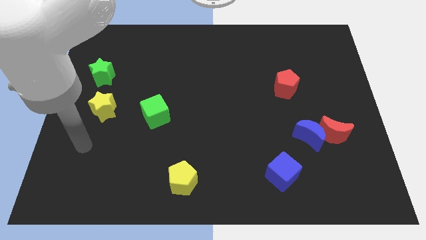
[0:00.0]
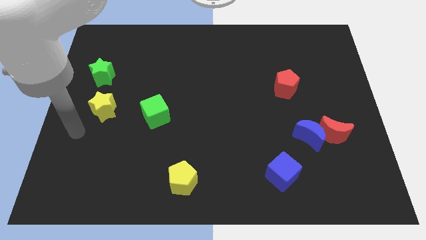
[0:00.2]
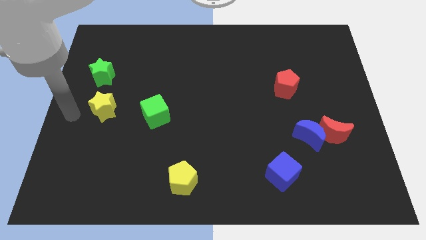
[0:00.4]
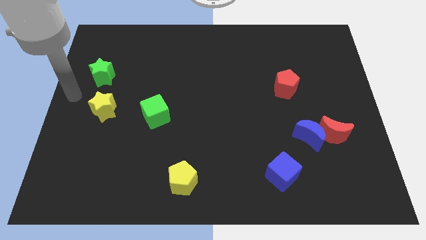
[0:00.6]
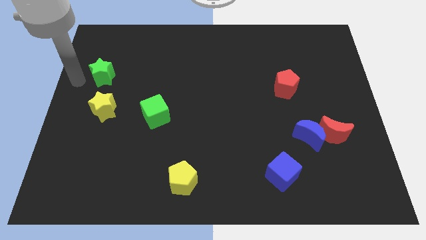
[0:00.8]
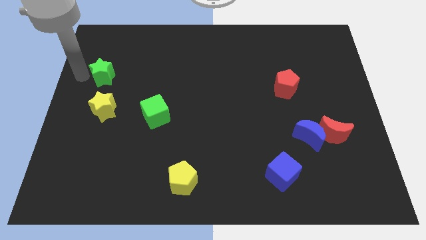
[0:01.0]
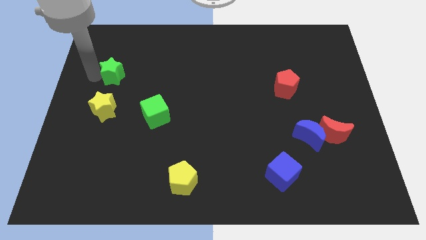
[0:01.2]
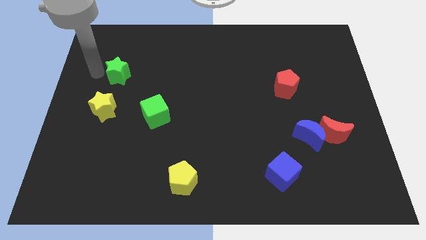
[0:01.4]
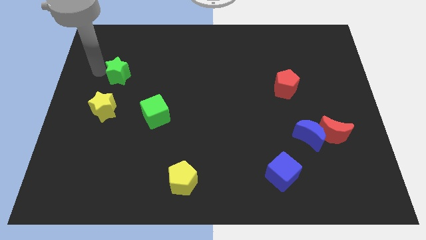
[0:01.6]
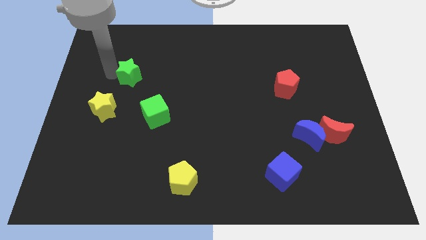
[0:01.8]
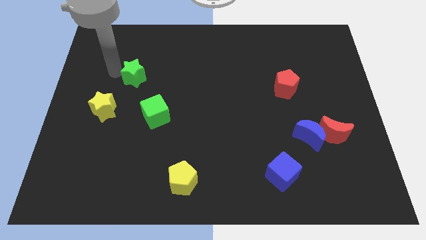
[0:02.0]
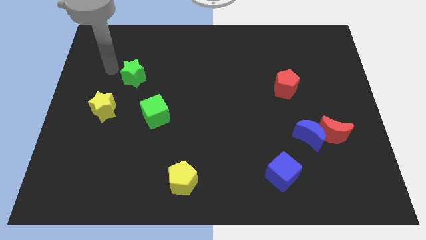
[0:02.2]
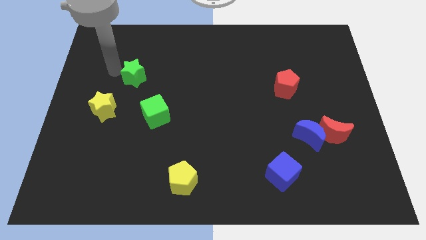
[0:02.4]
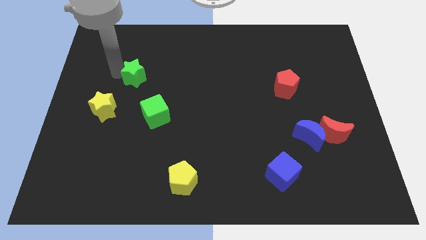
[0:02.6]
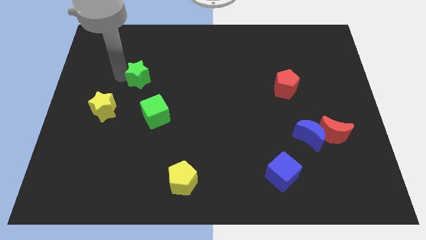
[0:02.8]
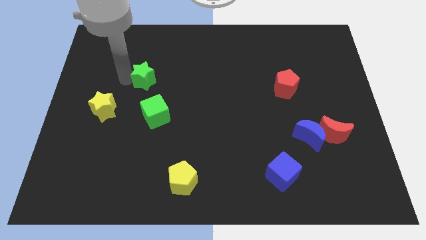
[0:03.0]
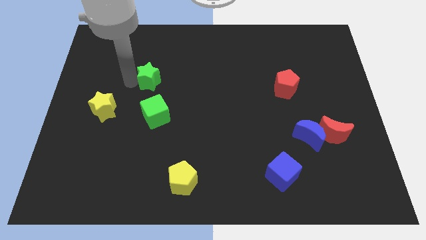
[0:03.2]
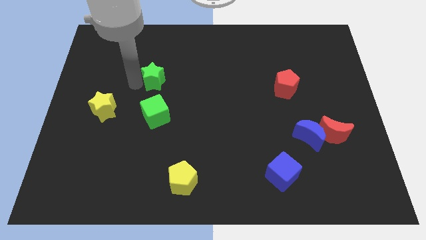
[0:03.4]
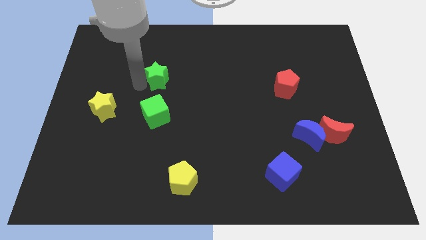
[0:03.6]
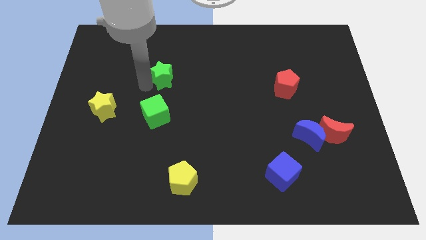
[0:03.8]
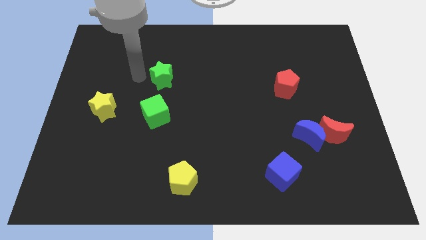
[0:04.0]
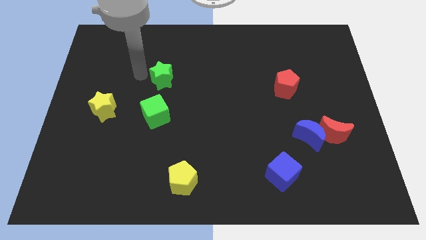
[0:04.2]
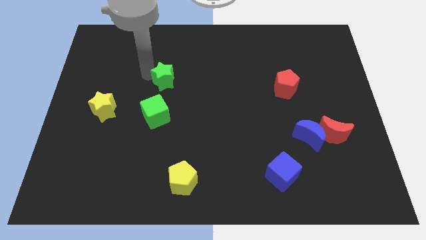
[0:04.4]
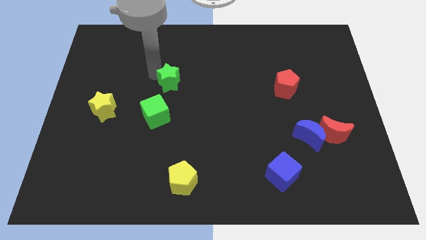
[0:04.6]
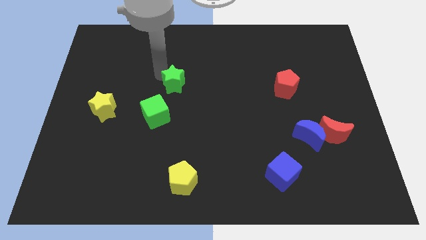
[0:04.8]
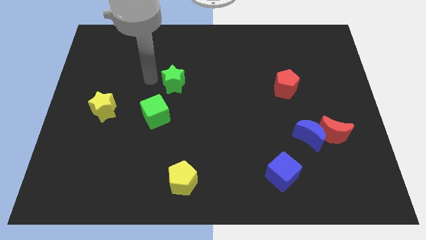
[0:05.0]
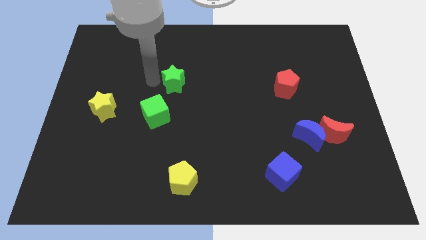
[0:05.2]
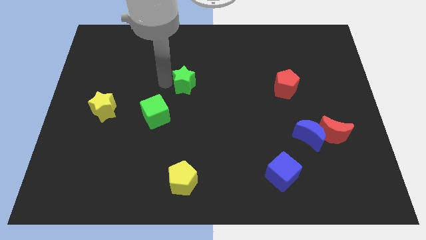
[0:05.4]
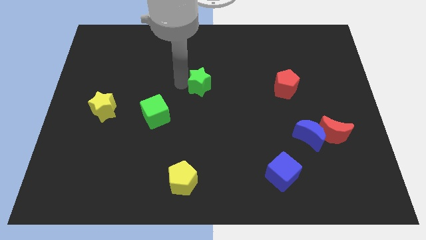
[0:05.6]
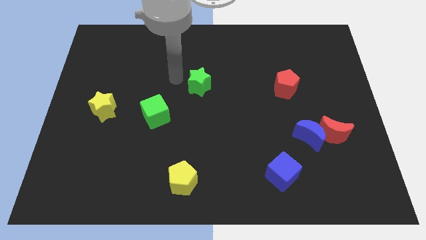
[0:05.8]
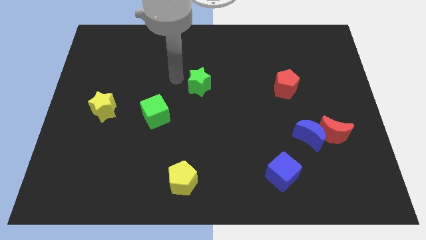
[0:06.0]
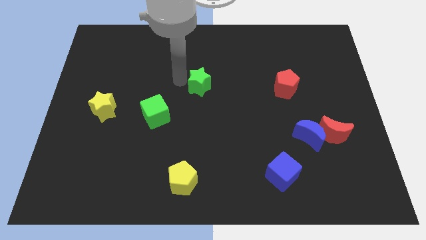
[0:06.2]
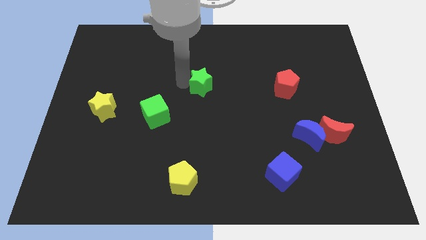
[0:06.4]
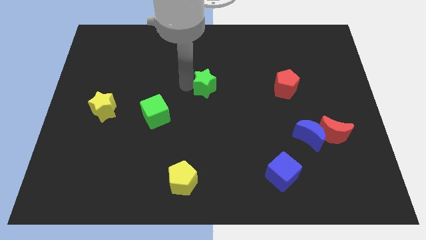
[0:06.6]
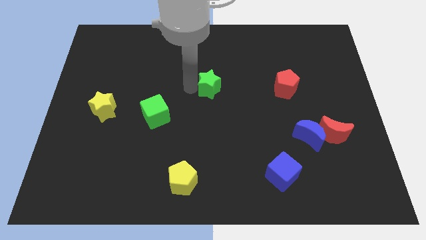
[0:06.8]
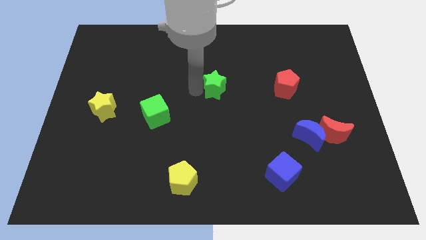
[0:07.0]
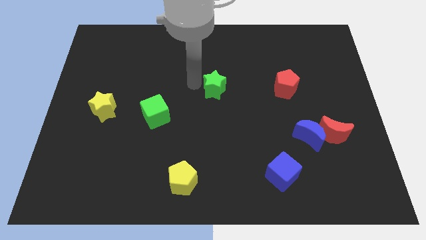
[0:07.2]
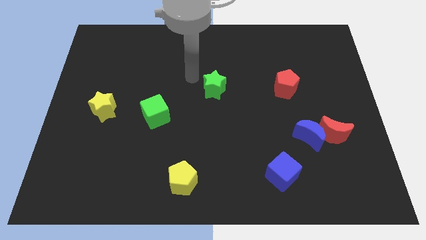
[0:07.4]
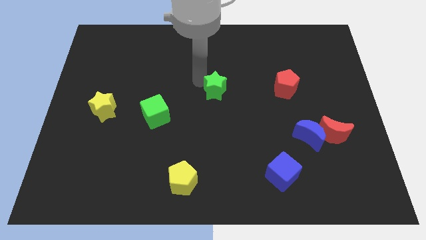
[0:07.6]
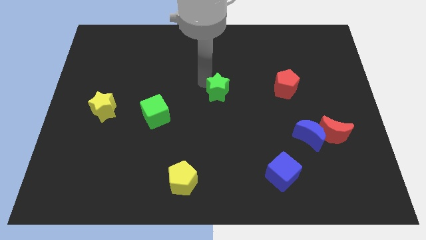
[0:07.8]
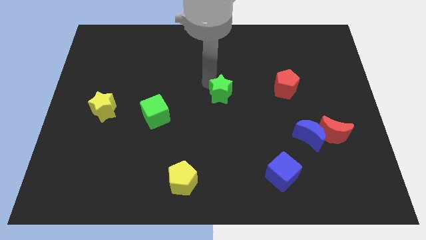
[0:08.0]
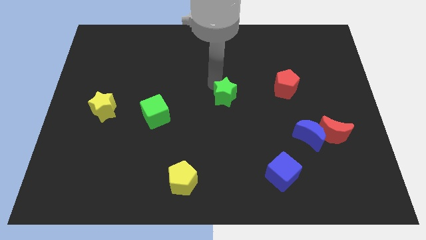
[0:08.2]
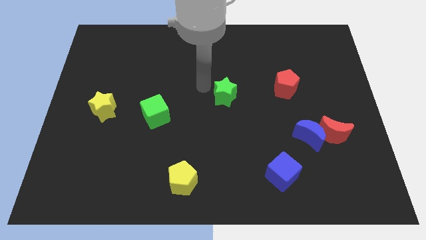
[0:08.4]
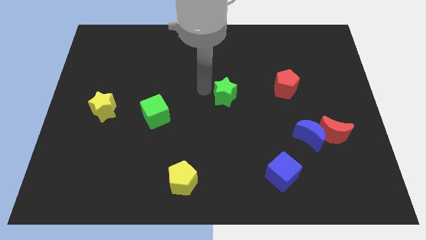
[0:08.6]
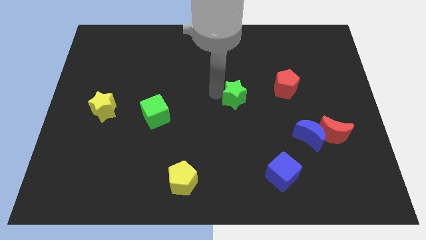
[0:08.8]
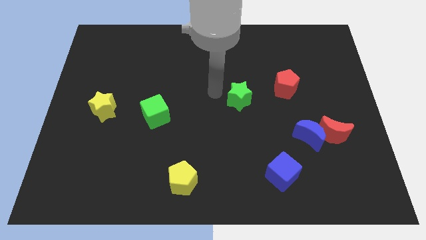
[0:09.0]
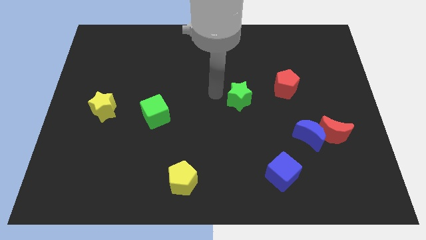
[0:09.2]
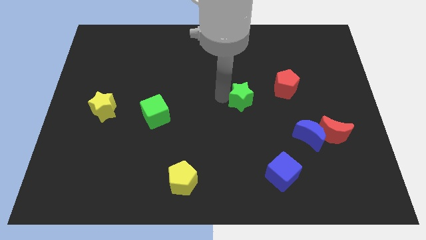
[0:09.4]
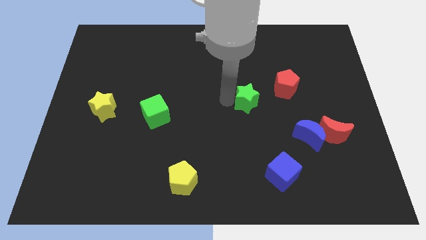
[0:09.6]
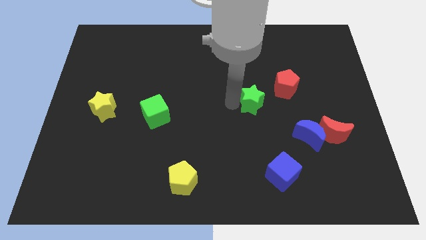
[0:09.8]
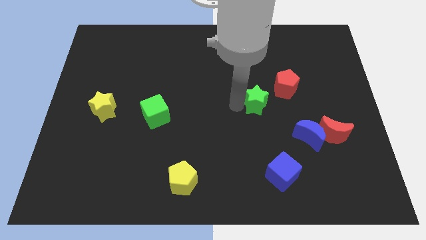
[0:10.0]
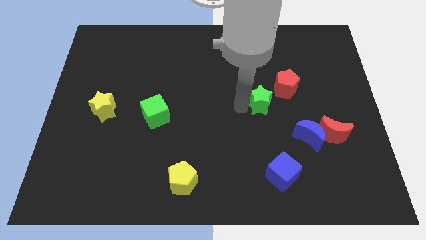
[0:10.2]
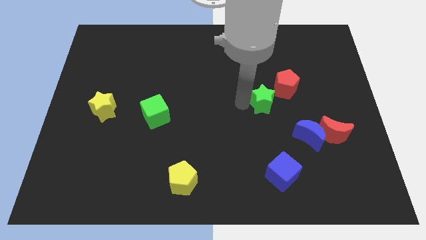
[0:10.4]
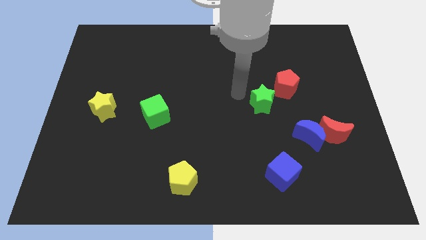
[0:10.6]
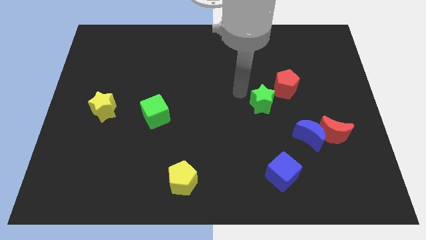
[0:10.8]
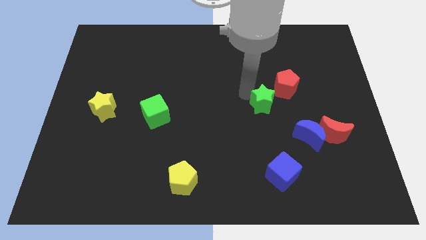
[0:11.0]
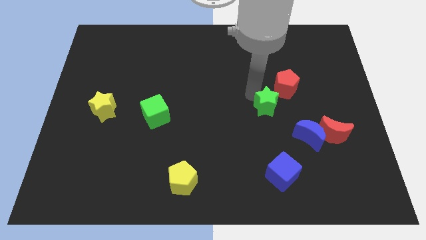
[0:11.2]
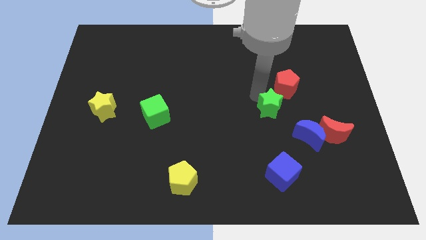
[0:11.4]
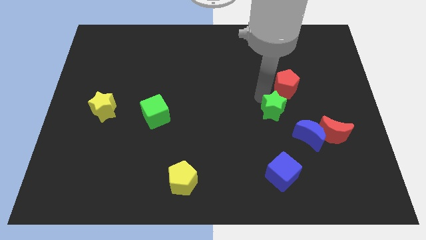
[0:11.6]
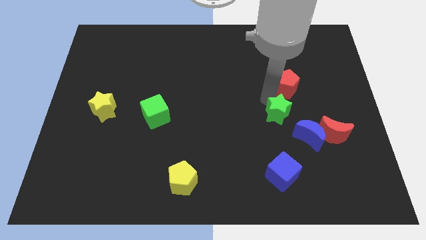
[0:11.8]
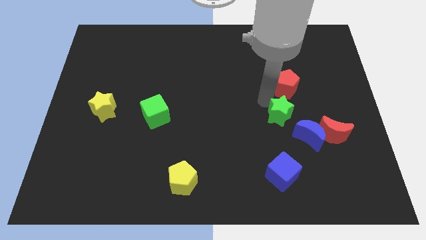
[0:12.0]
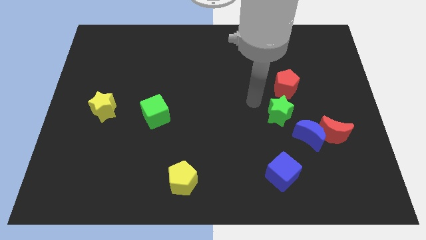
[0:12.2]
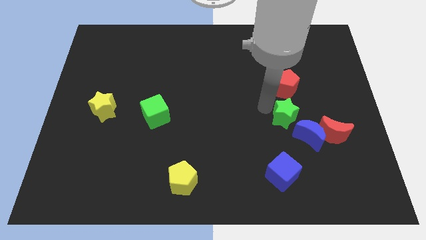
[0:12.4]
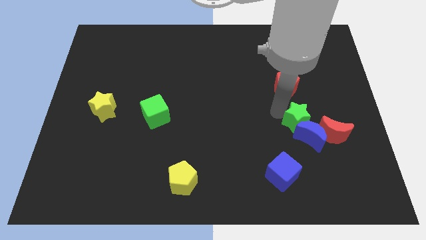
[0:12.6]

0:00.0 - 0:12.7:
slide the green star towards the blue moon

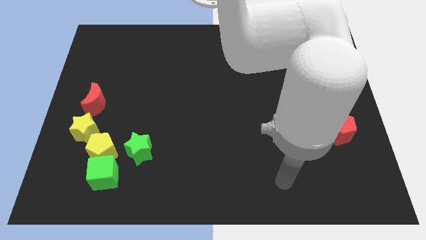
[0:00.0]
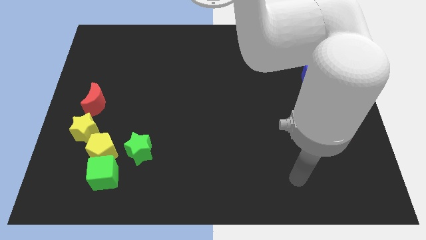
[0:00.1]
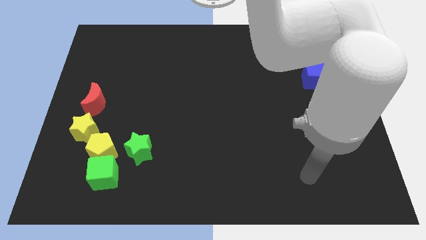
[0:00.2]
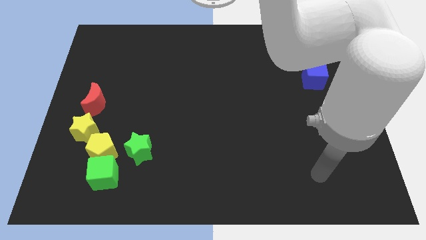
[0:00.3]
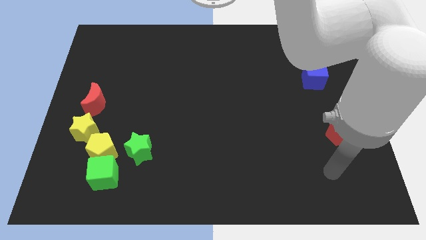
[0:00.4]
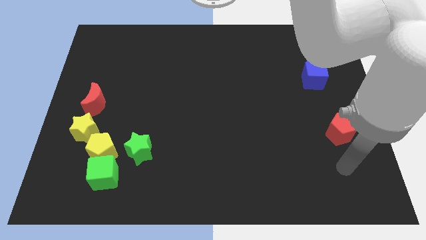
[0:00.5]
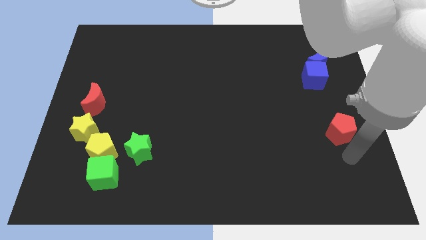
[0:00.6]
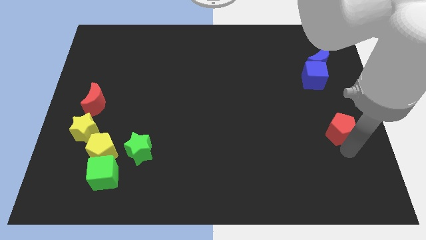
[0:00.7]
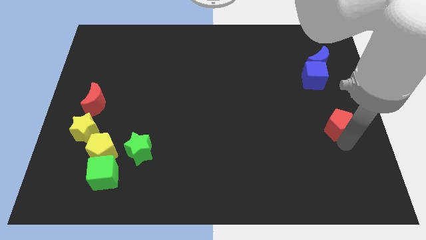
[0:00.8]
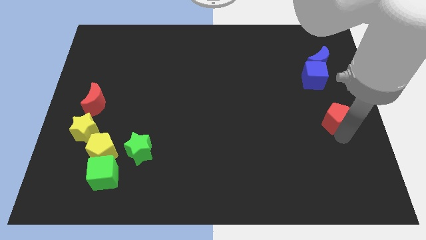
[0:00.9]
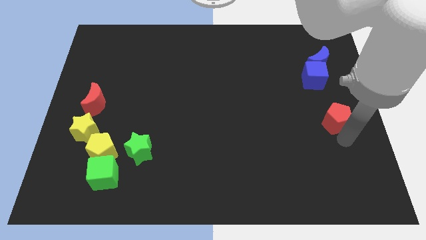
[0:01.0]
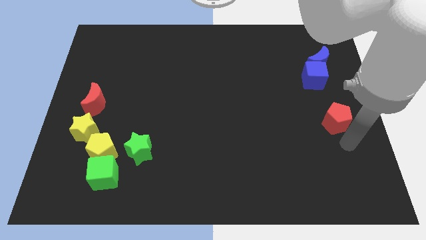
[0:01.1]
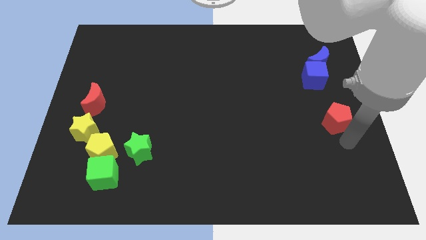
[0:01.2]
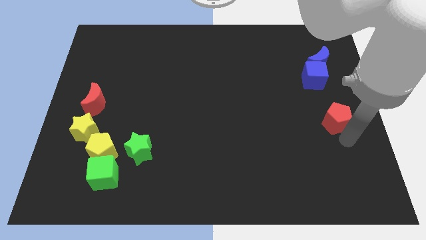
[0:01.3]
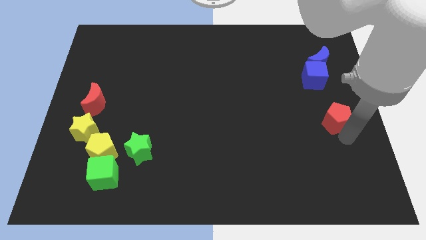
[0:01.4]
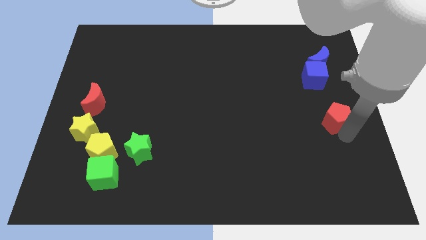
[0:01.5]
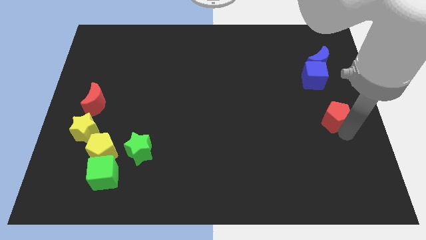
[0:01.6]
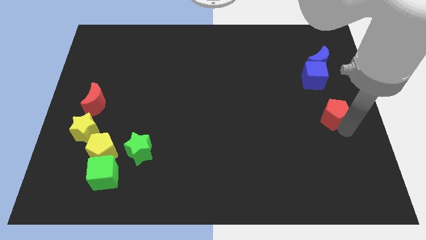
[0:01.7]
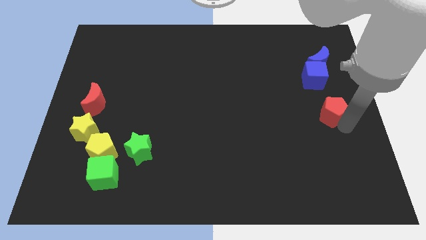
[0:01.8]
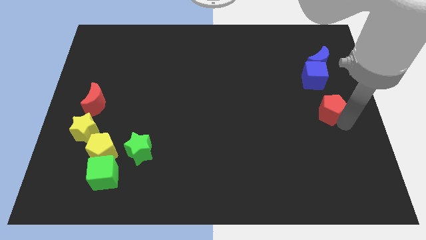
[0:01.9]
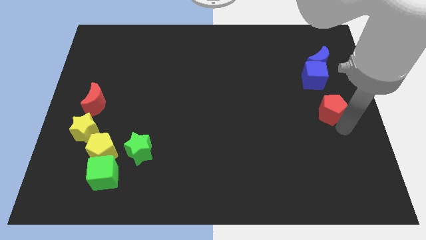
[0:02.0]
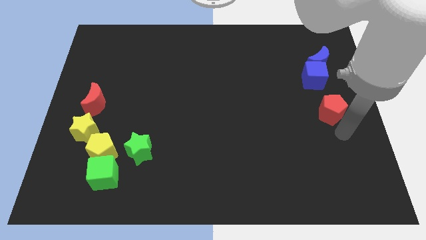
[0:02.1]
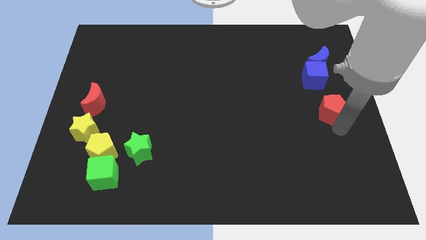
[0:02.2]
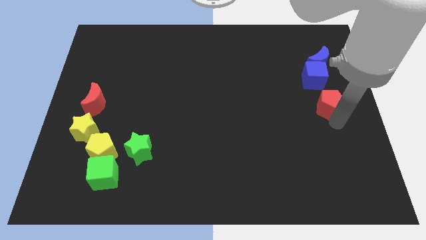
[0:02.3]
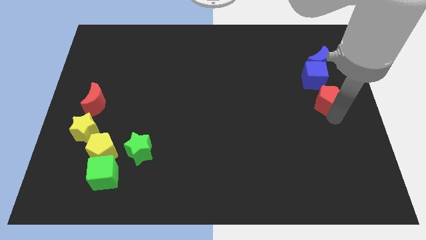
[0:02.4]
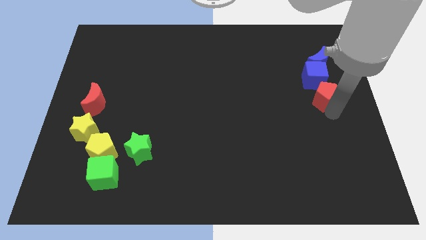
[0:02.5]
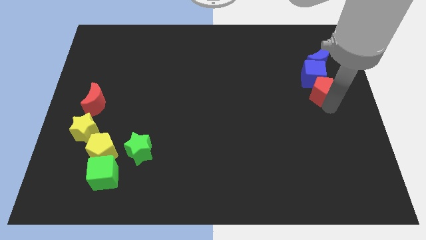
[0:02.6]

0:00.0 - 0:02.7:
move the red pentagon towards the blue cube
